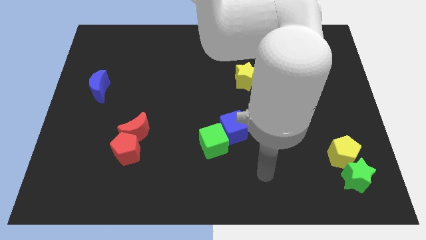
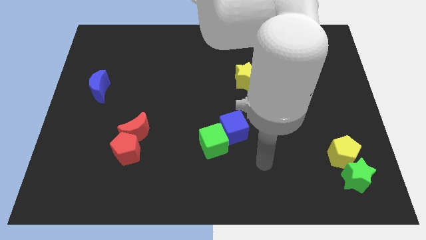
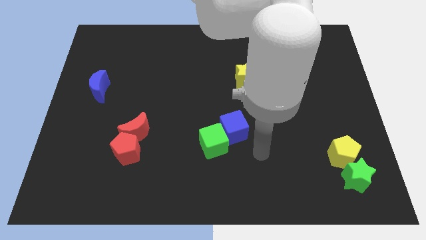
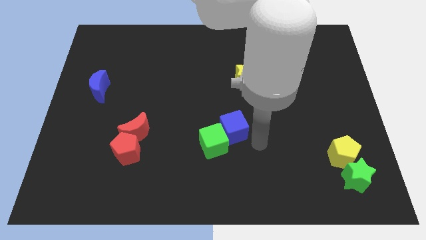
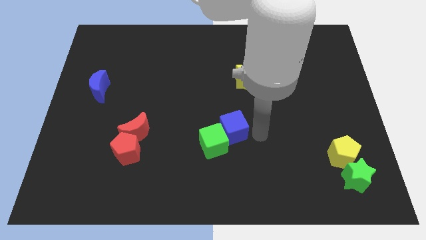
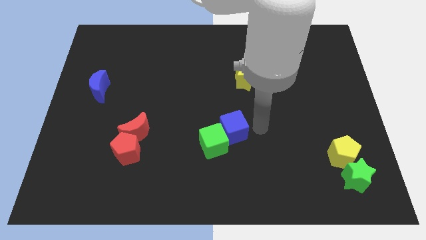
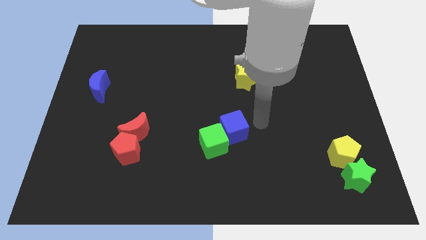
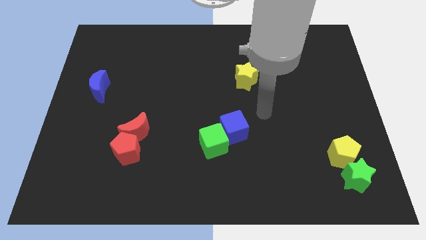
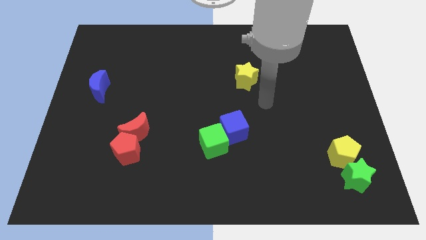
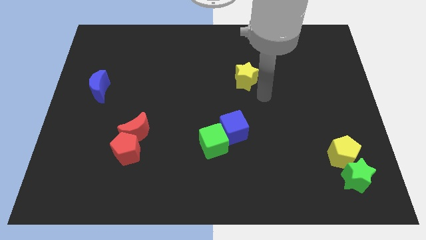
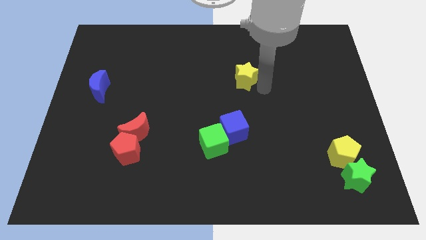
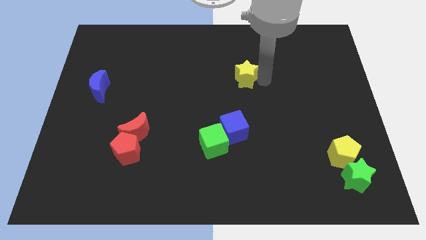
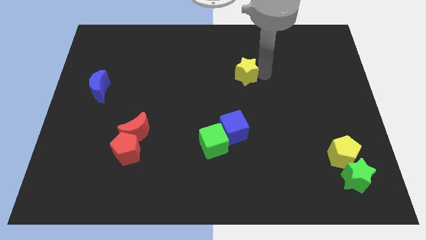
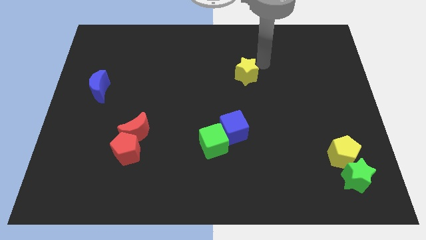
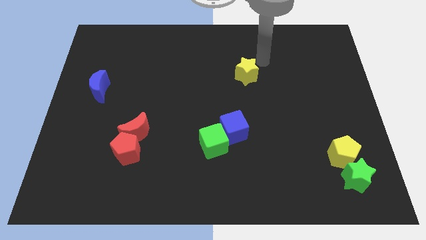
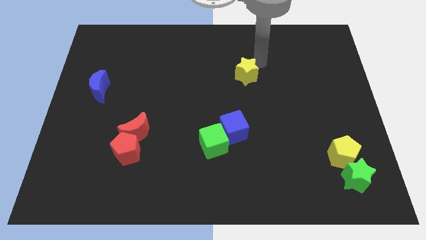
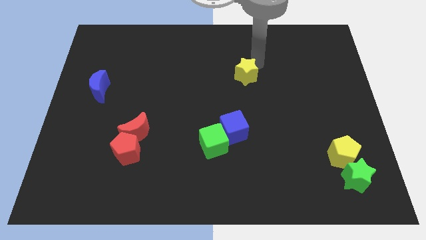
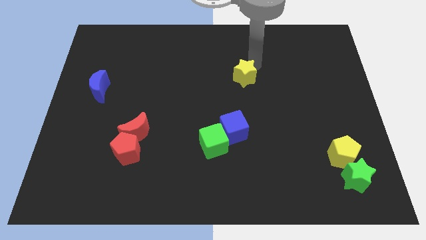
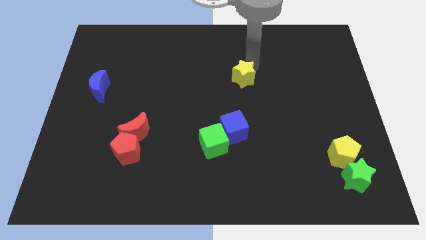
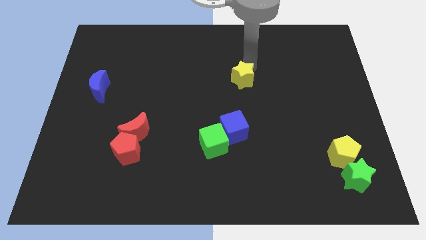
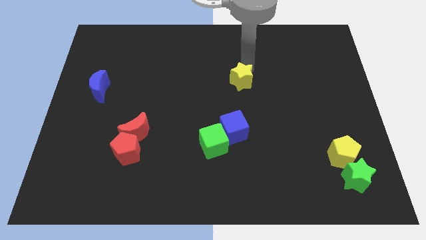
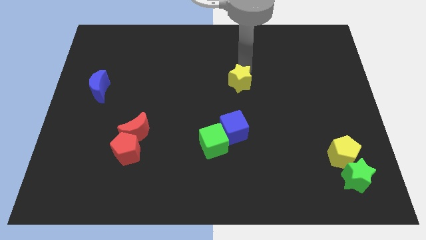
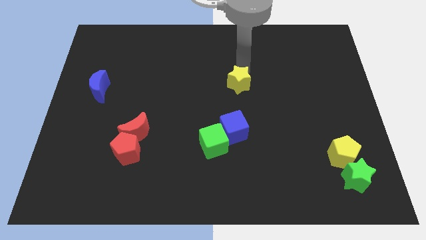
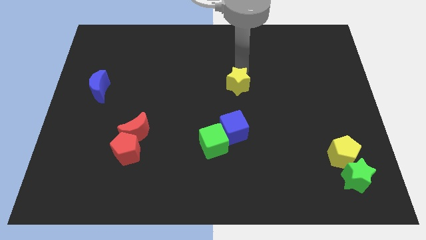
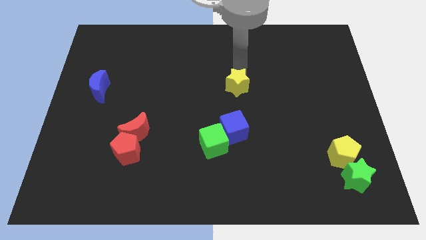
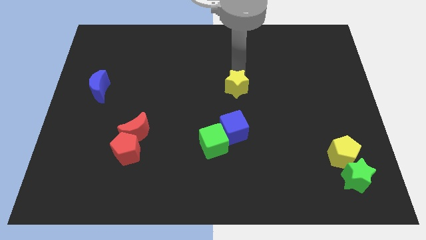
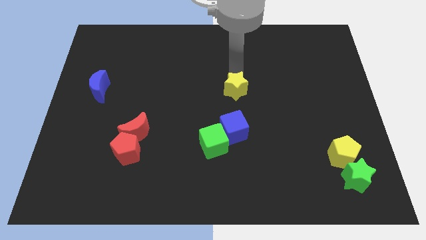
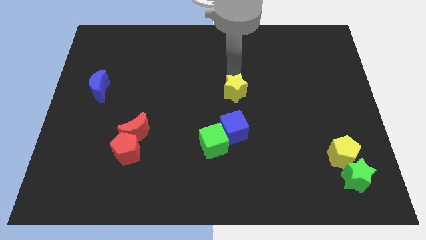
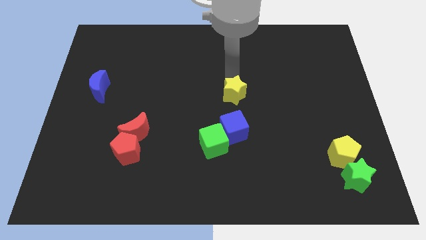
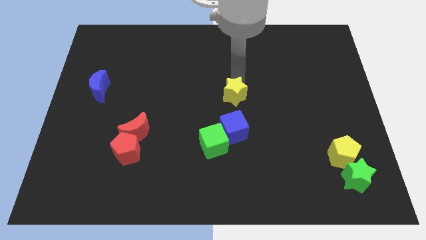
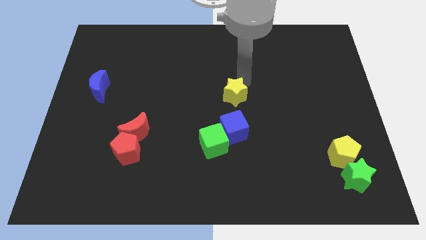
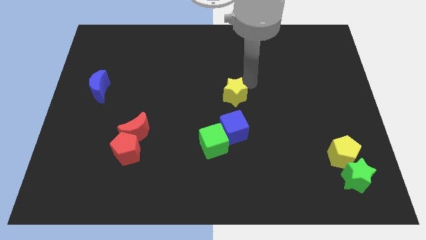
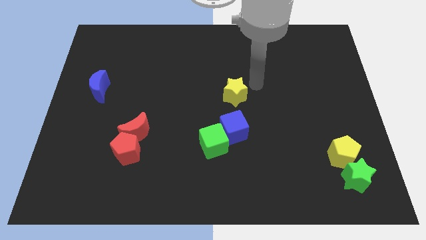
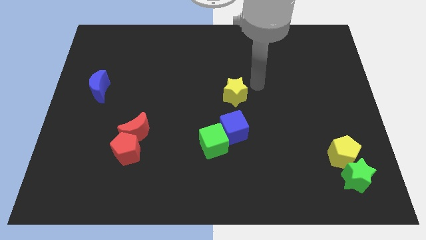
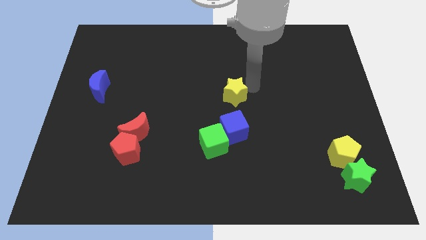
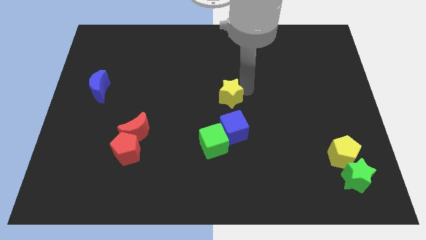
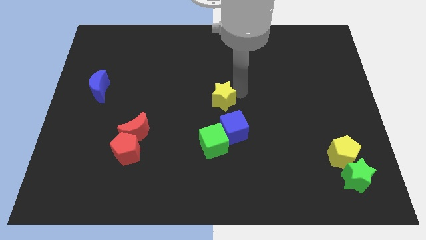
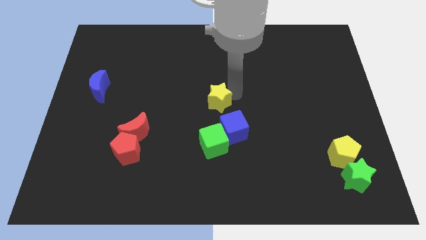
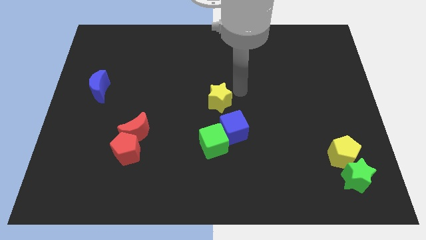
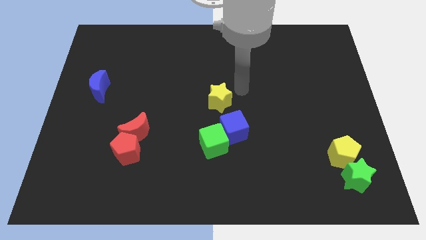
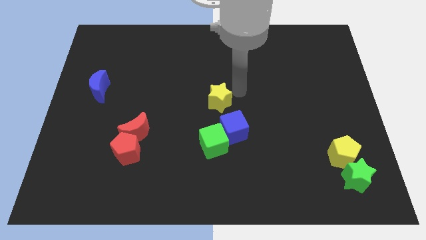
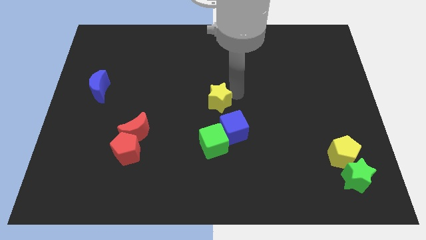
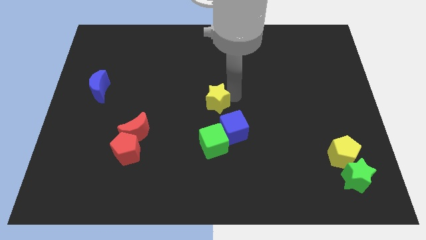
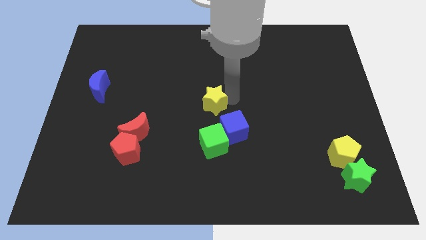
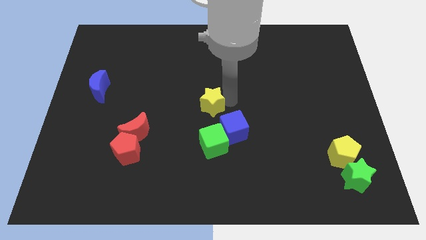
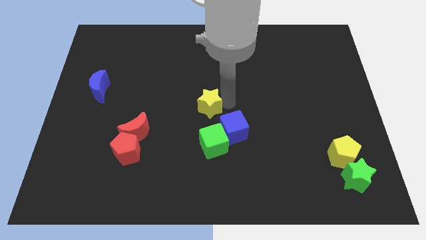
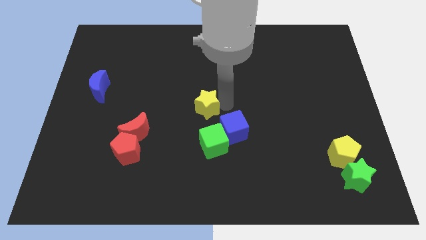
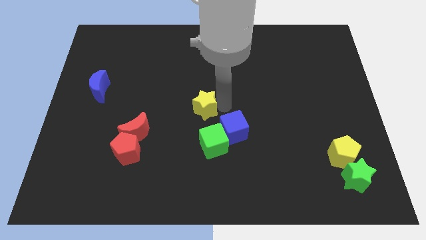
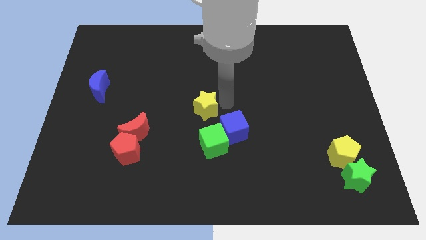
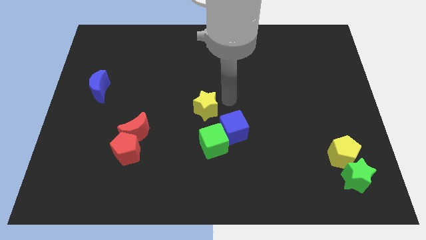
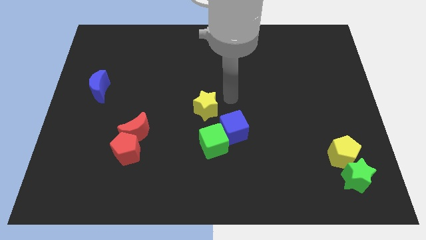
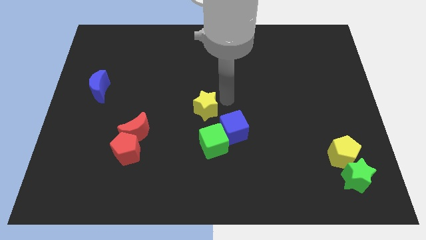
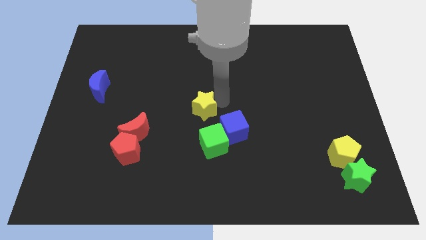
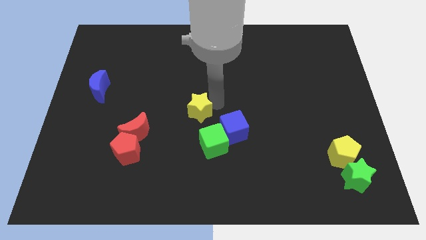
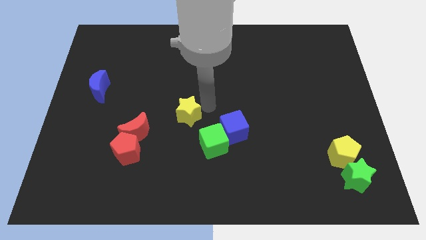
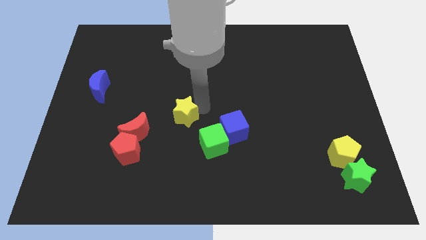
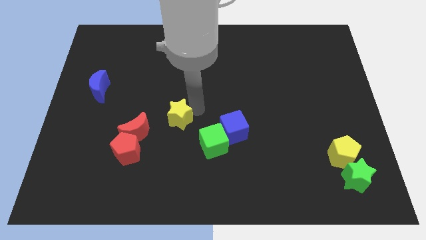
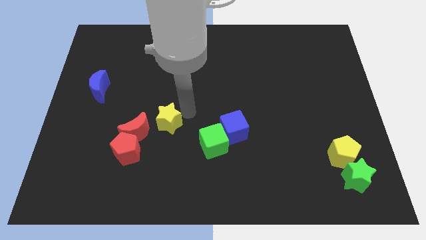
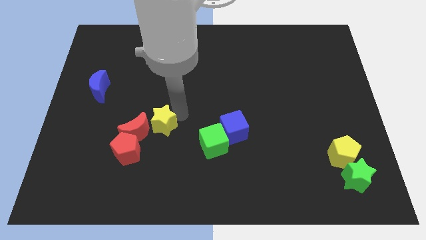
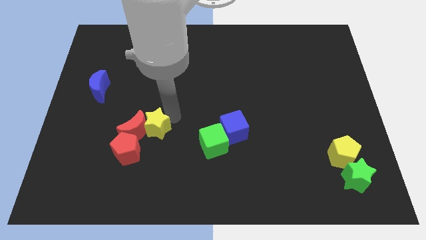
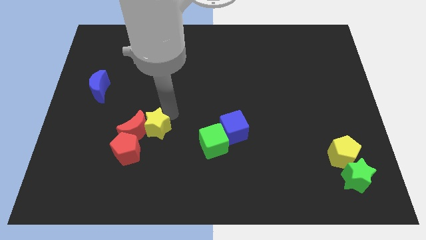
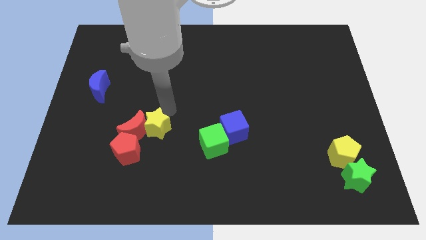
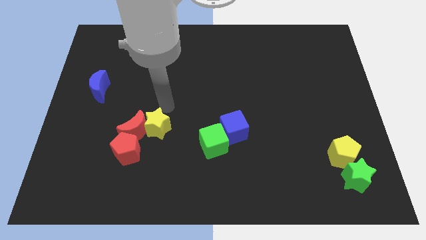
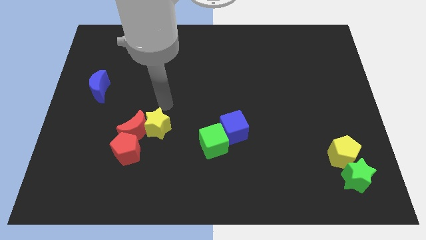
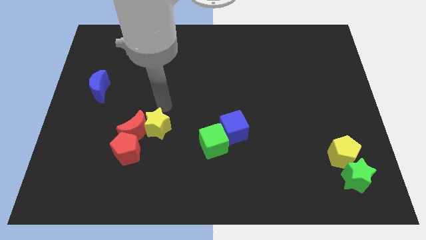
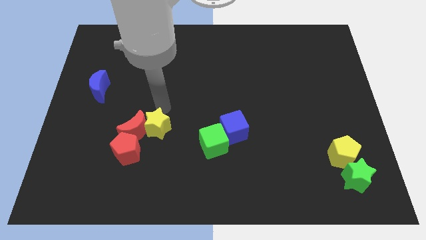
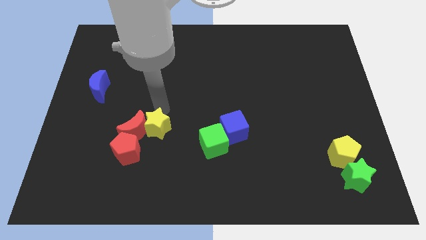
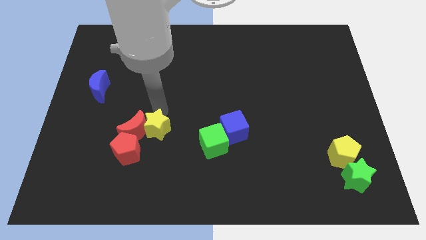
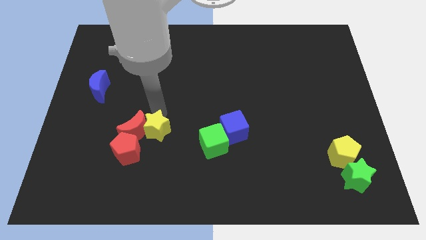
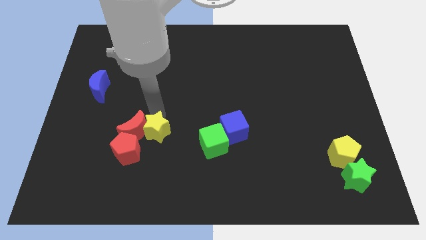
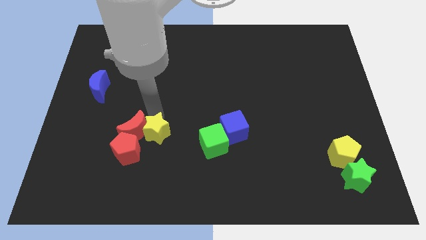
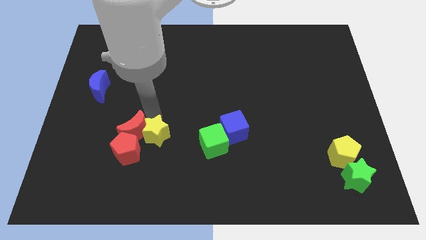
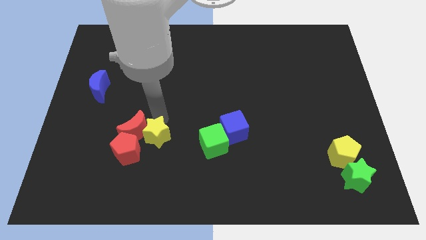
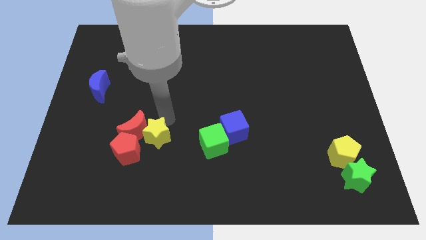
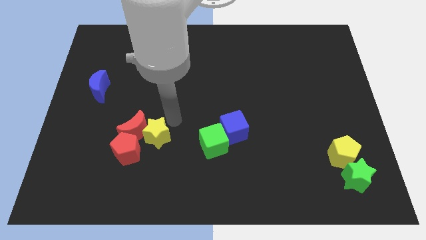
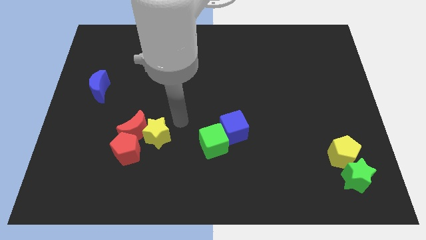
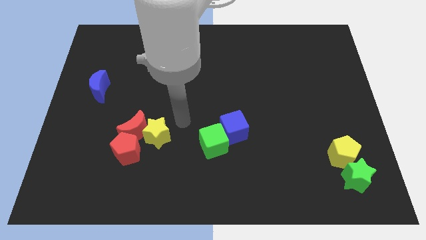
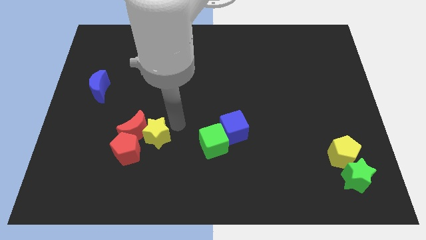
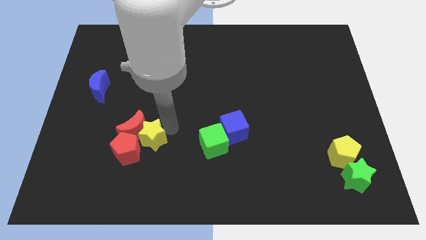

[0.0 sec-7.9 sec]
push the yellow star close to the red pentagon
